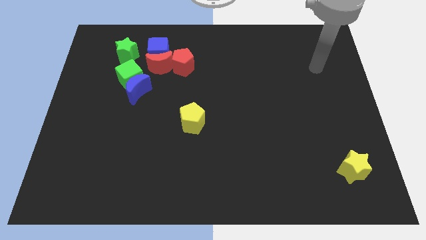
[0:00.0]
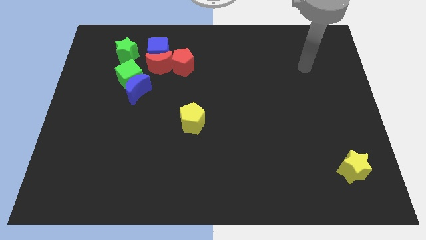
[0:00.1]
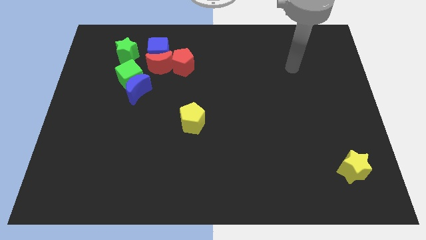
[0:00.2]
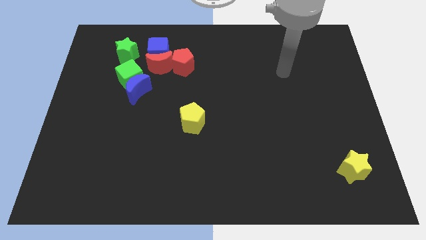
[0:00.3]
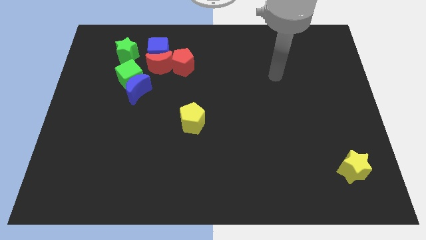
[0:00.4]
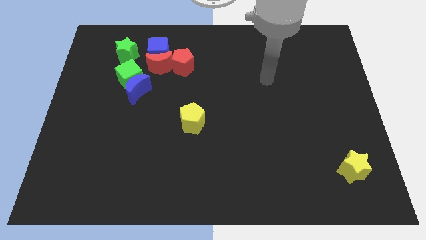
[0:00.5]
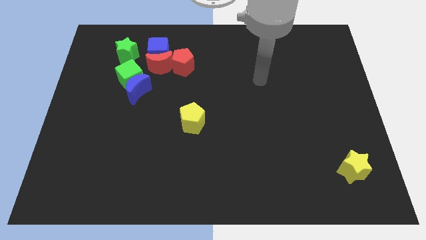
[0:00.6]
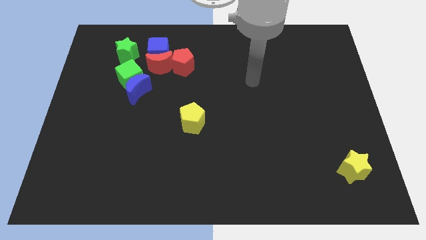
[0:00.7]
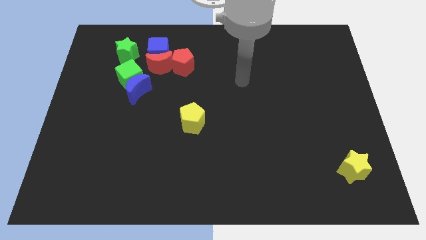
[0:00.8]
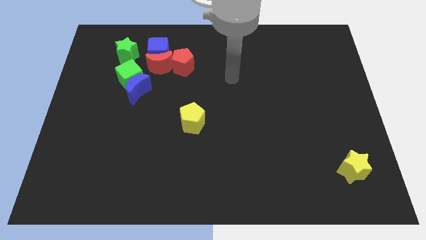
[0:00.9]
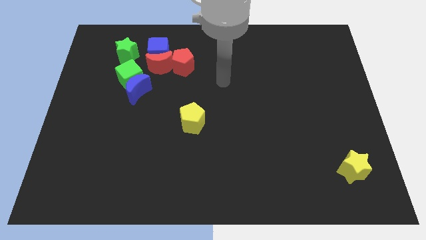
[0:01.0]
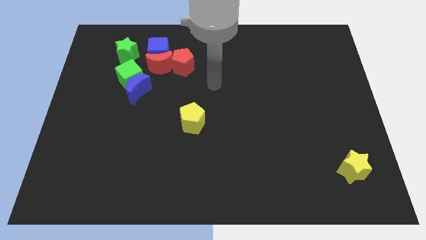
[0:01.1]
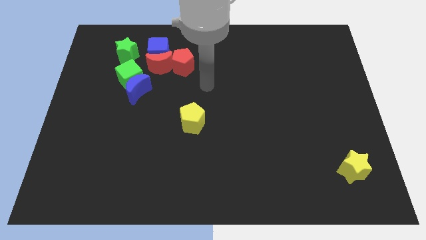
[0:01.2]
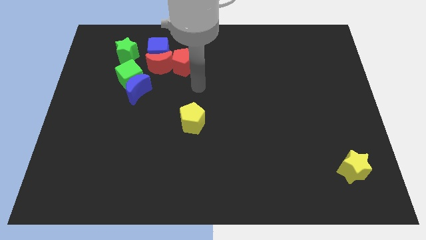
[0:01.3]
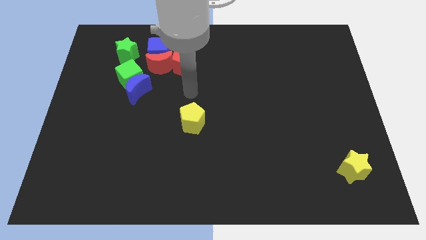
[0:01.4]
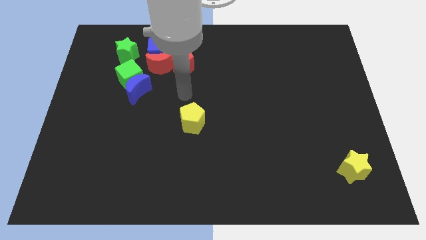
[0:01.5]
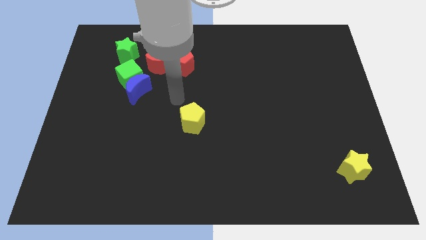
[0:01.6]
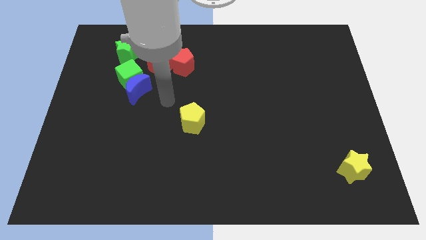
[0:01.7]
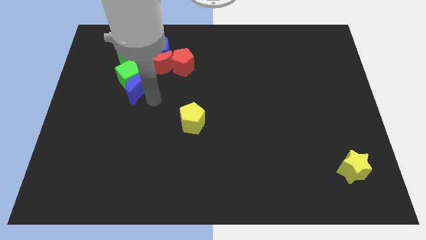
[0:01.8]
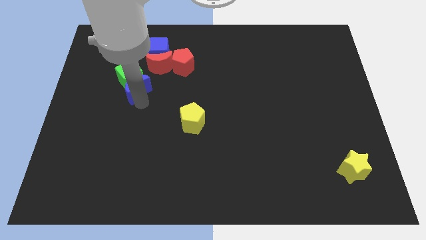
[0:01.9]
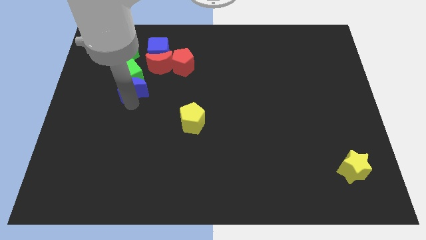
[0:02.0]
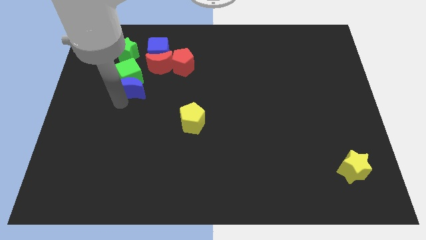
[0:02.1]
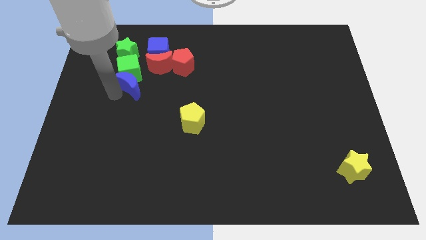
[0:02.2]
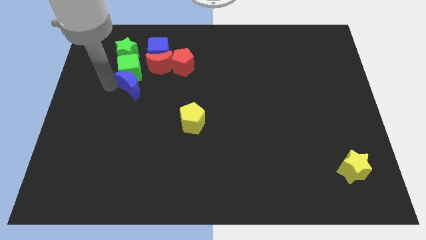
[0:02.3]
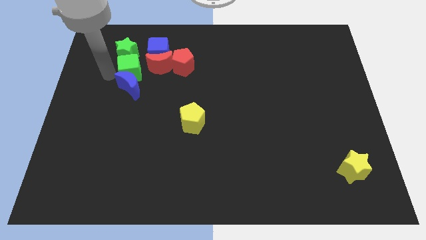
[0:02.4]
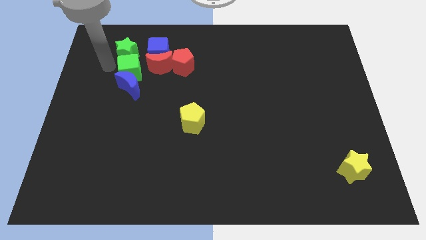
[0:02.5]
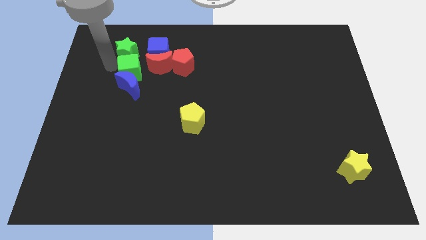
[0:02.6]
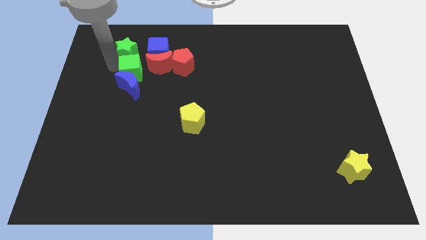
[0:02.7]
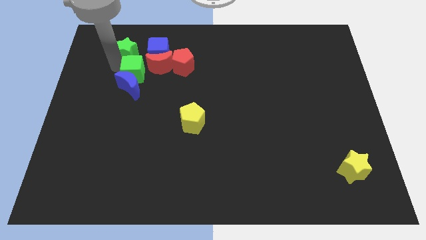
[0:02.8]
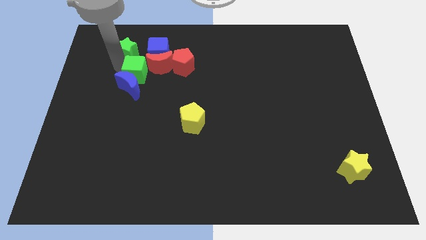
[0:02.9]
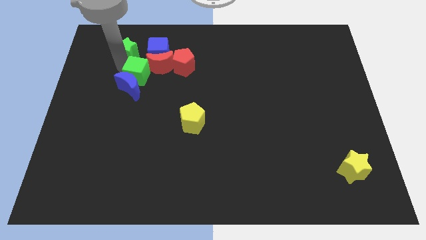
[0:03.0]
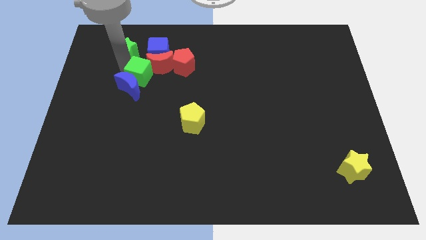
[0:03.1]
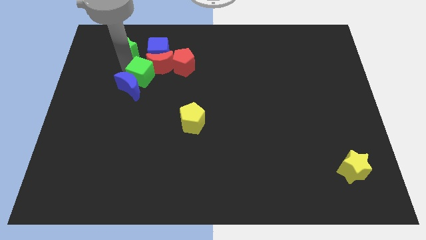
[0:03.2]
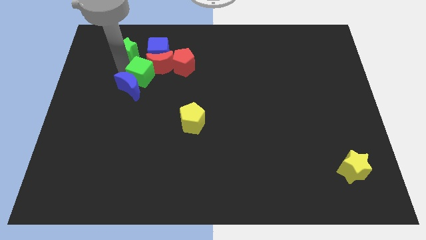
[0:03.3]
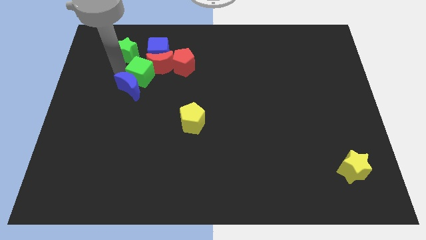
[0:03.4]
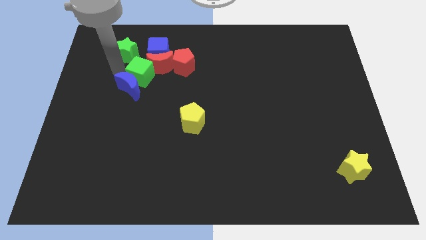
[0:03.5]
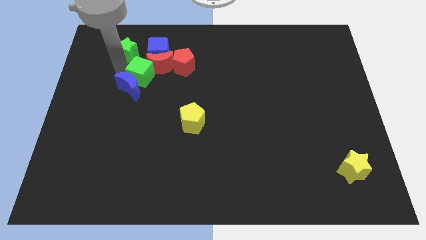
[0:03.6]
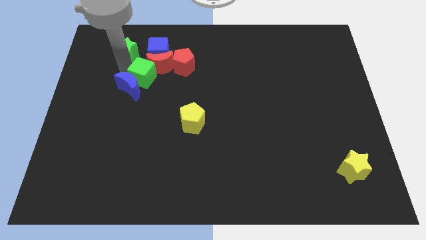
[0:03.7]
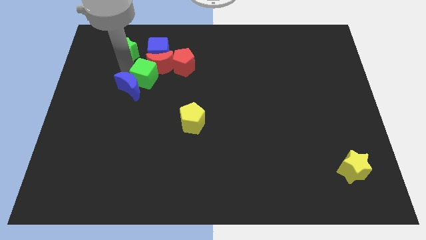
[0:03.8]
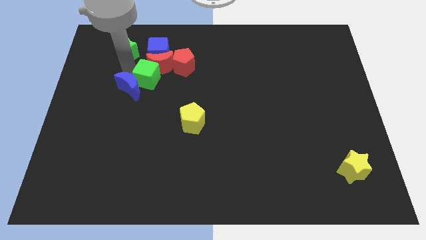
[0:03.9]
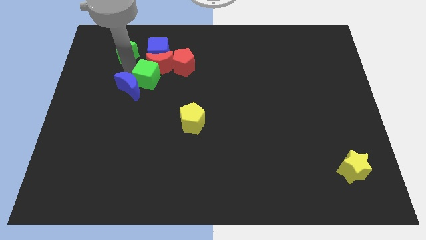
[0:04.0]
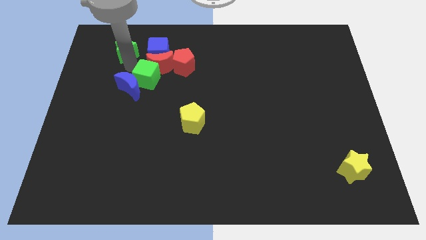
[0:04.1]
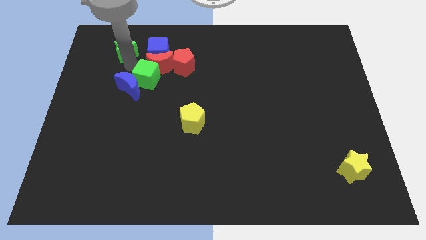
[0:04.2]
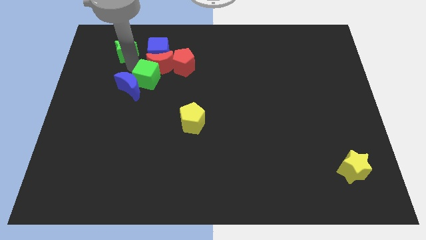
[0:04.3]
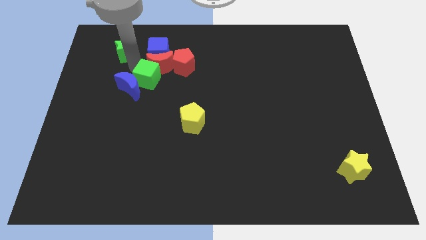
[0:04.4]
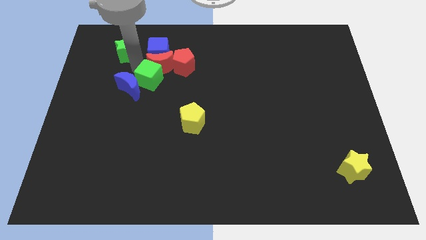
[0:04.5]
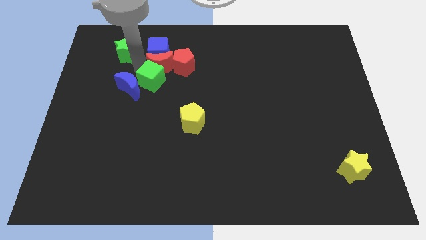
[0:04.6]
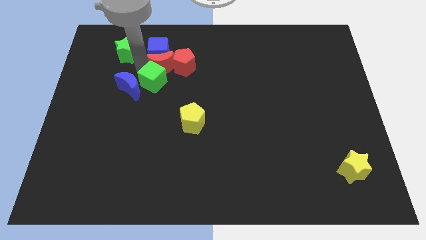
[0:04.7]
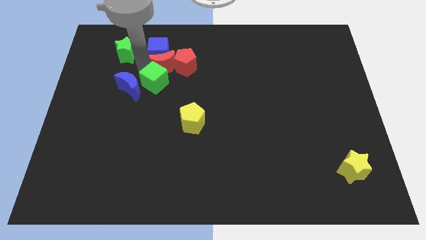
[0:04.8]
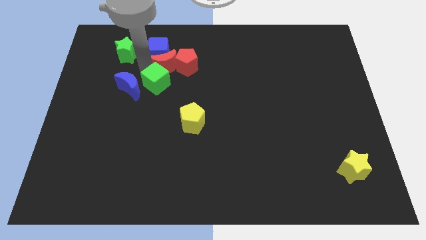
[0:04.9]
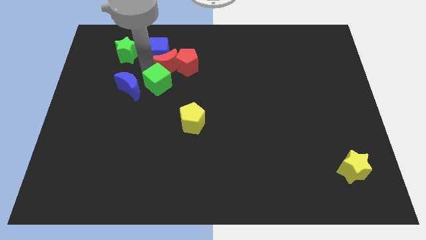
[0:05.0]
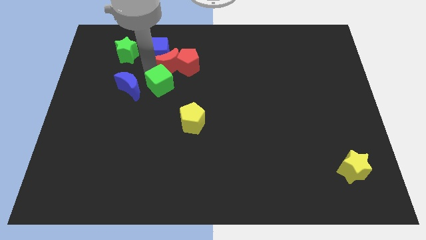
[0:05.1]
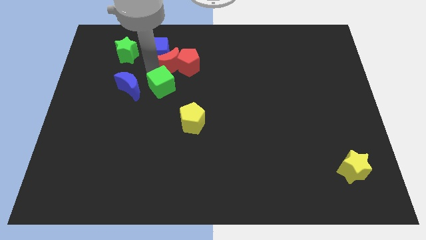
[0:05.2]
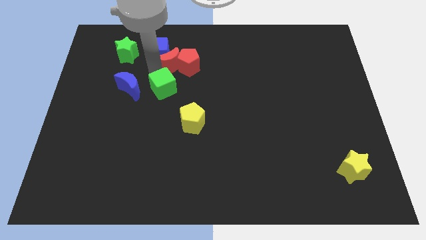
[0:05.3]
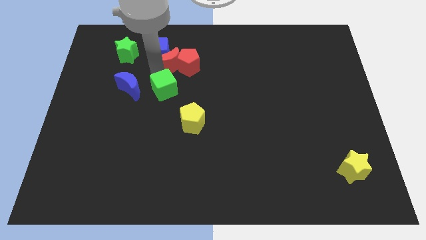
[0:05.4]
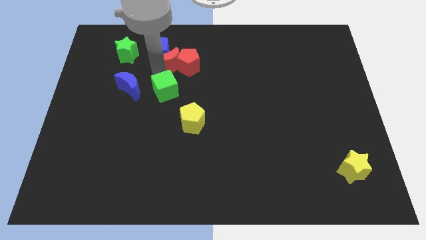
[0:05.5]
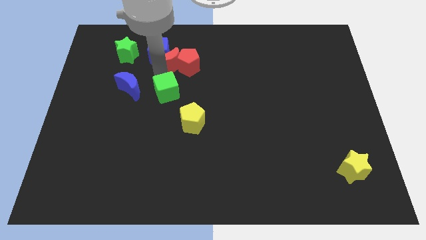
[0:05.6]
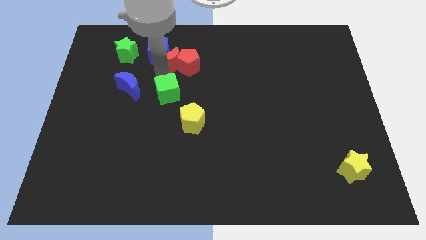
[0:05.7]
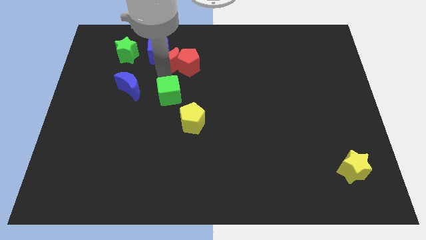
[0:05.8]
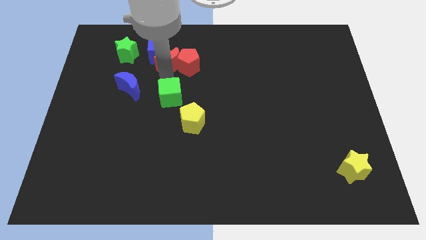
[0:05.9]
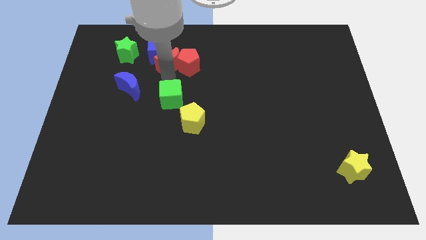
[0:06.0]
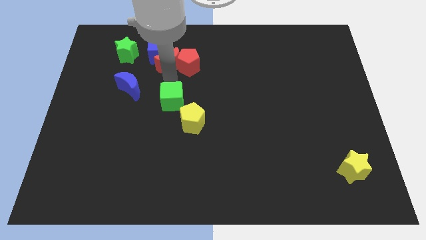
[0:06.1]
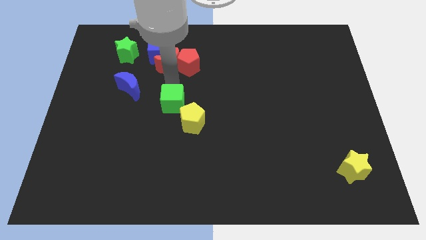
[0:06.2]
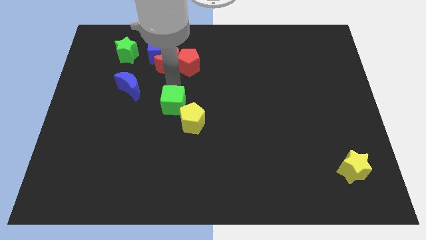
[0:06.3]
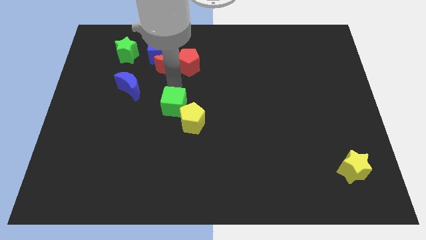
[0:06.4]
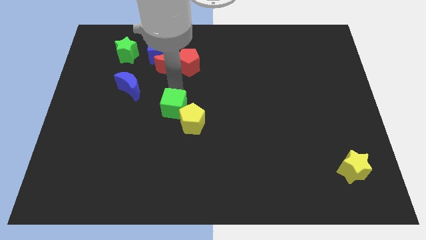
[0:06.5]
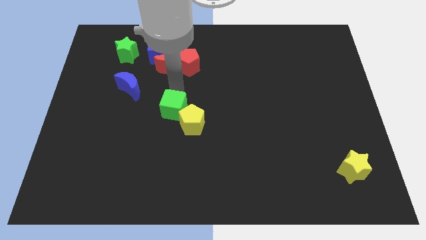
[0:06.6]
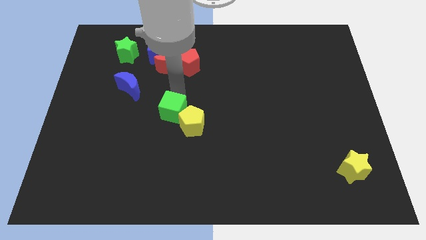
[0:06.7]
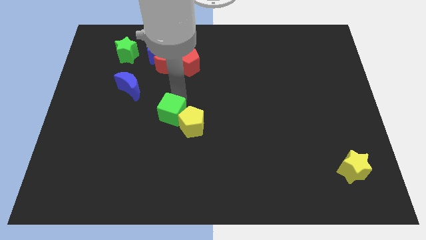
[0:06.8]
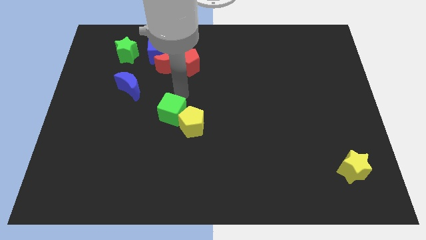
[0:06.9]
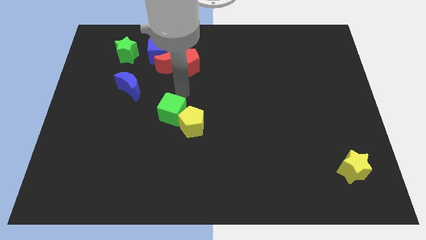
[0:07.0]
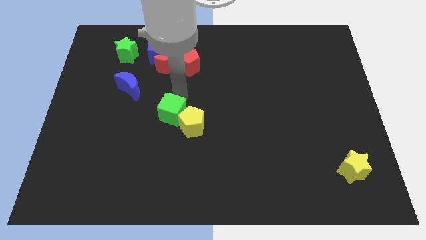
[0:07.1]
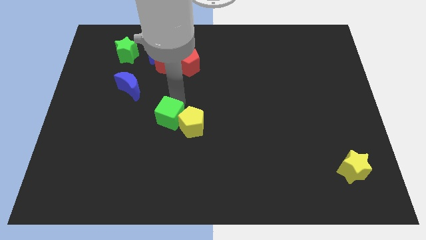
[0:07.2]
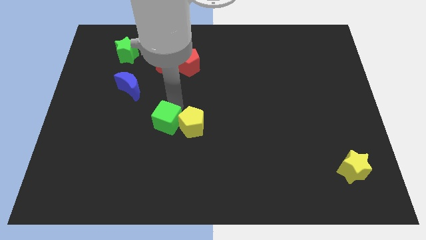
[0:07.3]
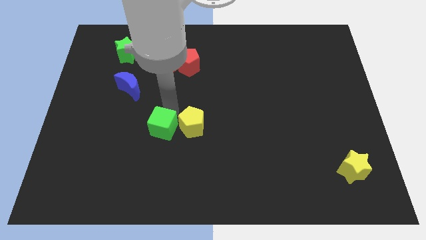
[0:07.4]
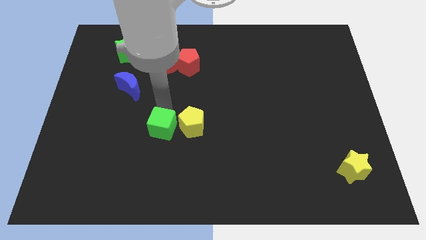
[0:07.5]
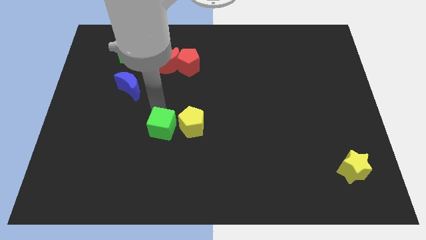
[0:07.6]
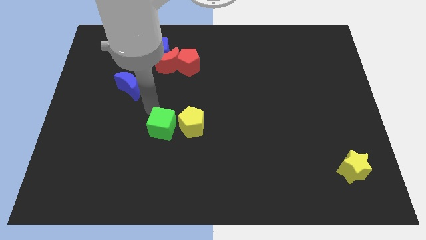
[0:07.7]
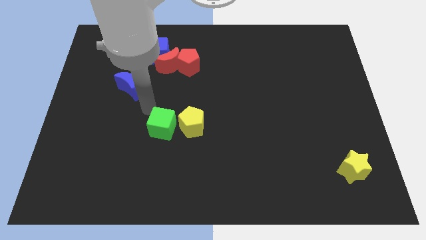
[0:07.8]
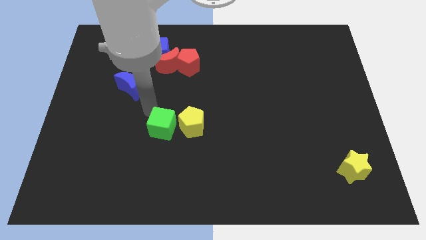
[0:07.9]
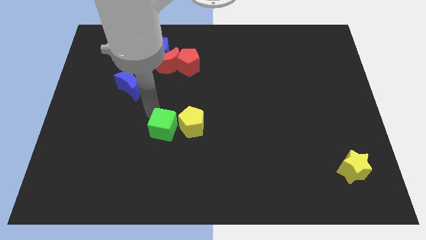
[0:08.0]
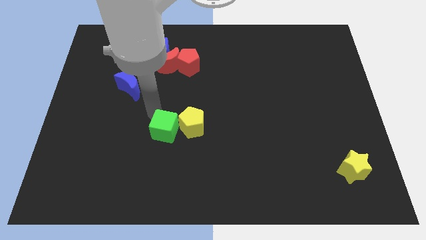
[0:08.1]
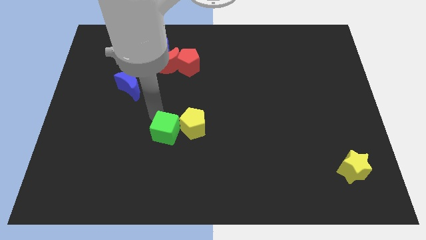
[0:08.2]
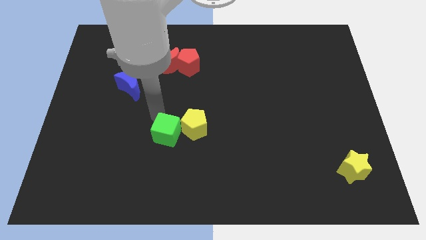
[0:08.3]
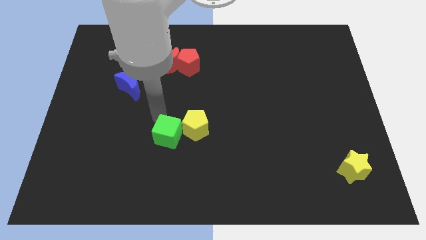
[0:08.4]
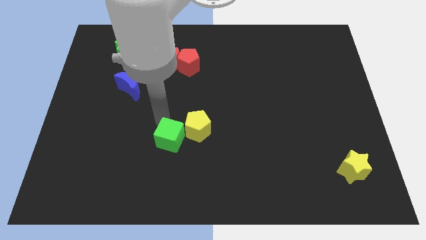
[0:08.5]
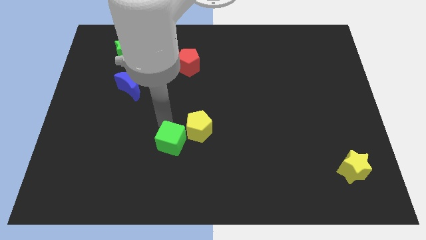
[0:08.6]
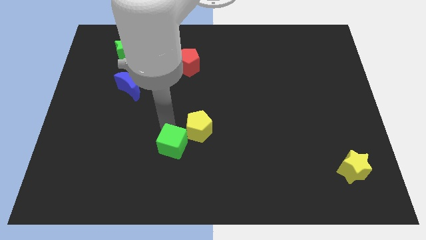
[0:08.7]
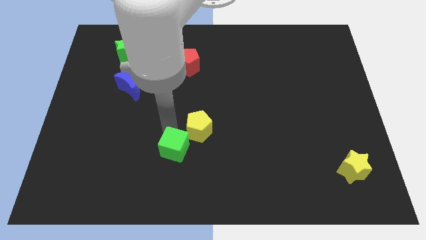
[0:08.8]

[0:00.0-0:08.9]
put the green cube below the yellow pentagon
